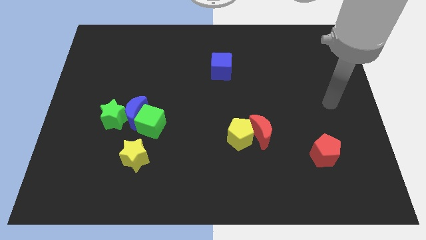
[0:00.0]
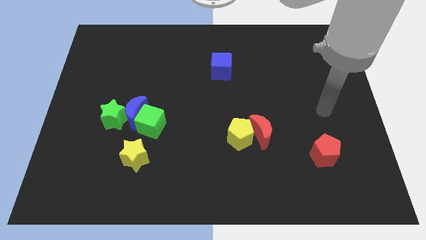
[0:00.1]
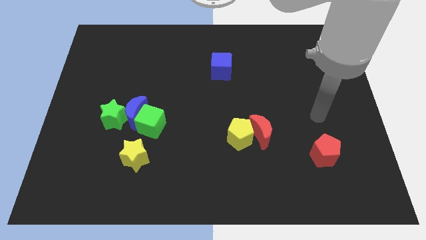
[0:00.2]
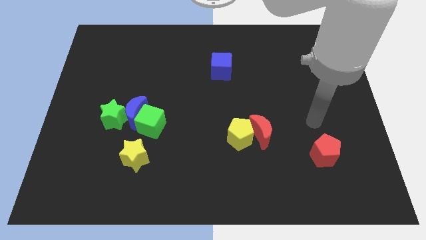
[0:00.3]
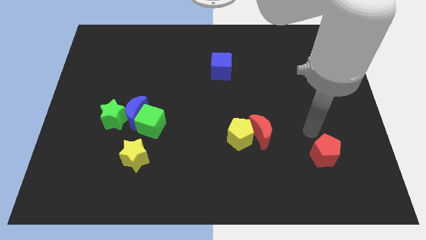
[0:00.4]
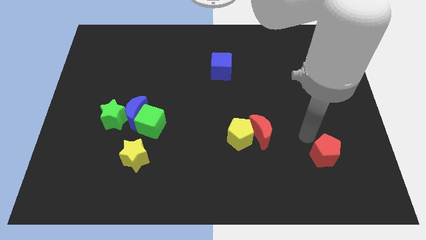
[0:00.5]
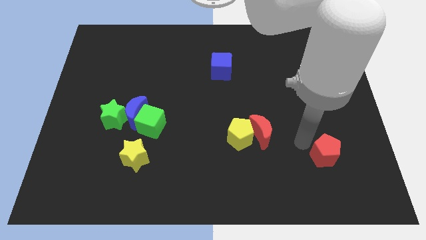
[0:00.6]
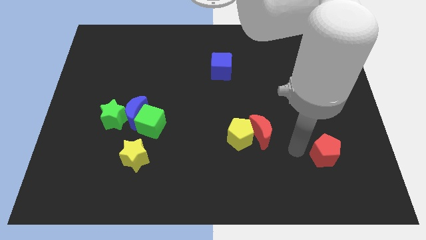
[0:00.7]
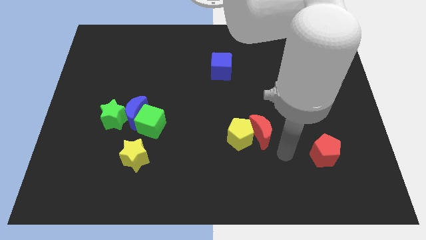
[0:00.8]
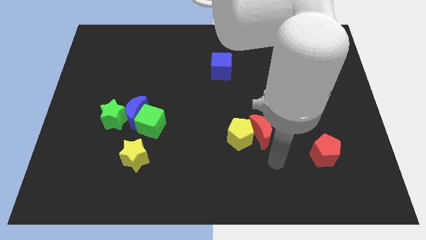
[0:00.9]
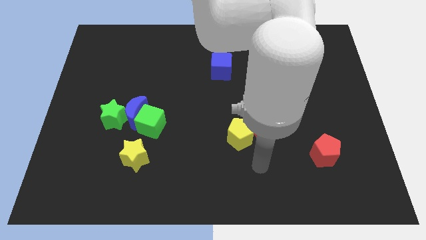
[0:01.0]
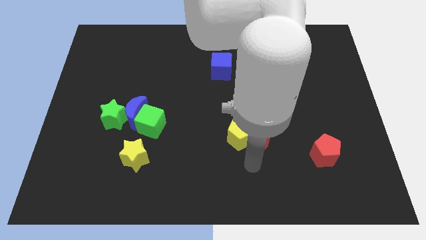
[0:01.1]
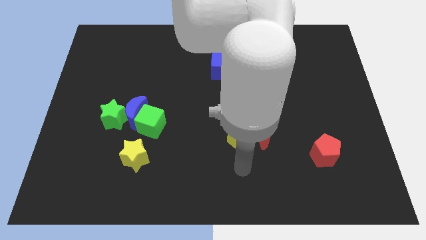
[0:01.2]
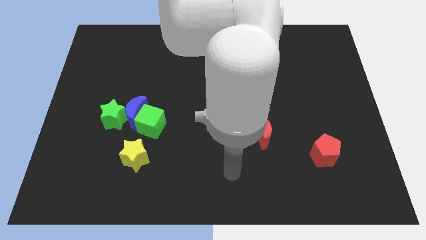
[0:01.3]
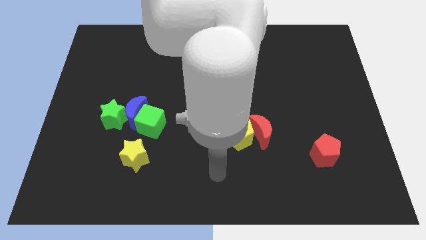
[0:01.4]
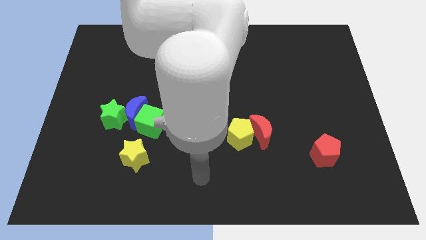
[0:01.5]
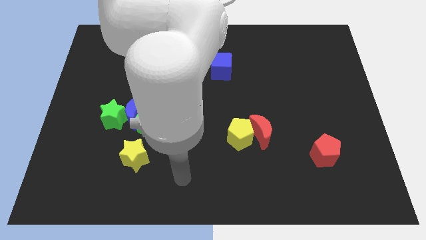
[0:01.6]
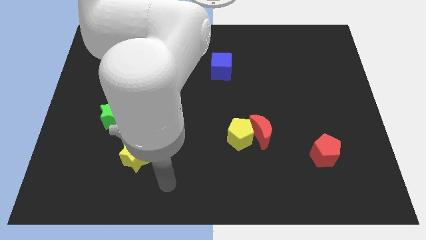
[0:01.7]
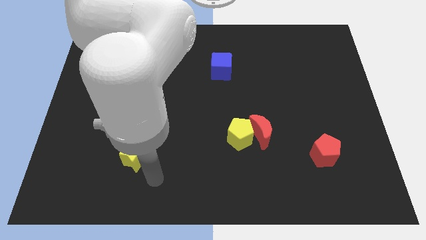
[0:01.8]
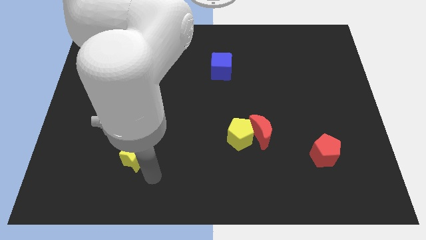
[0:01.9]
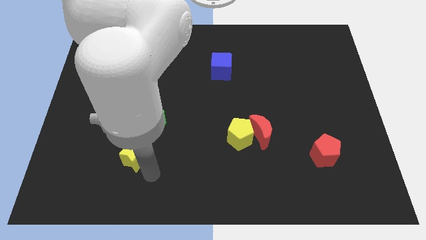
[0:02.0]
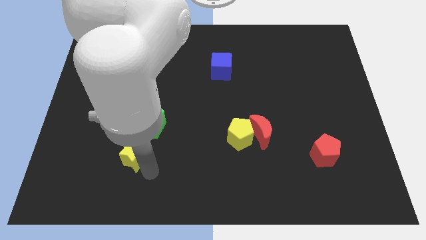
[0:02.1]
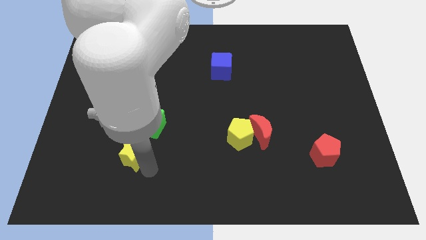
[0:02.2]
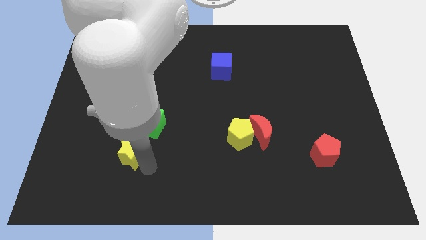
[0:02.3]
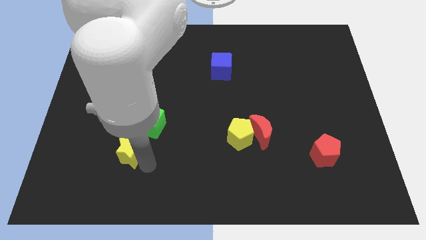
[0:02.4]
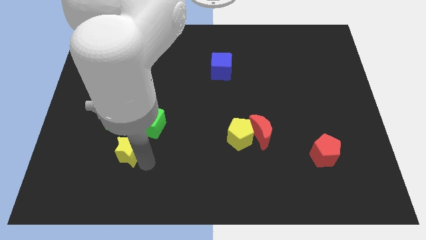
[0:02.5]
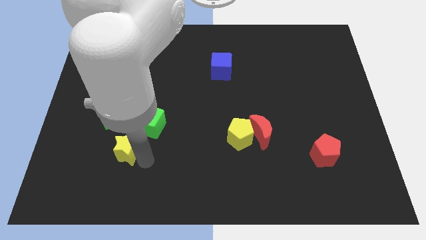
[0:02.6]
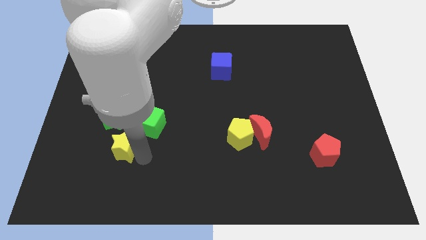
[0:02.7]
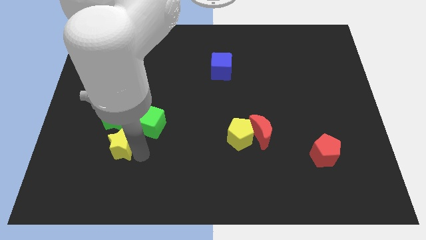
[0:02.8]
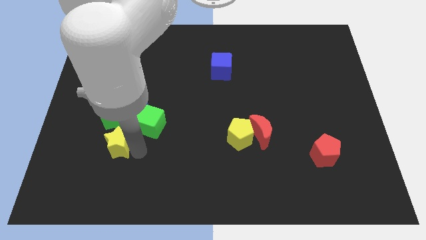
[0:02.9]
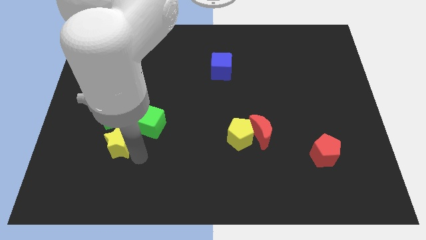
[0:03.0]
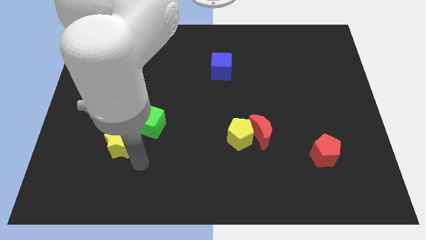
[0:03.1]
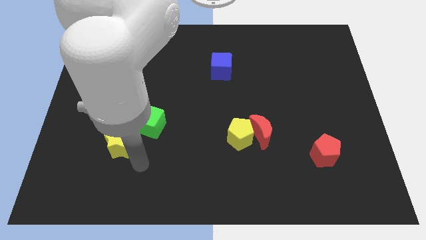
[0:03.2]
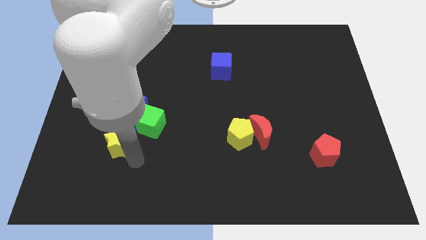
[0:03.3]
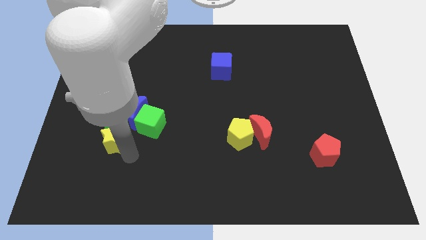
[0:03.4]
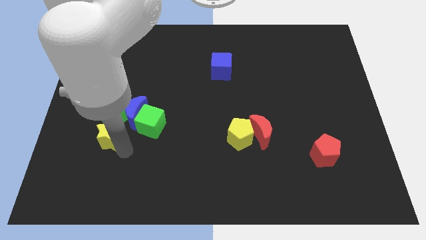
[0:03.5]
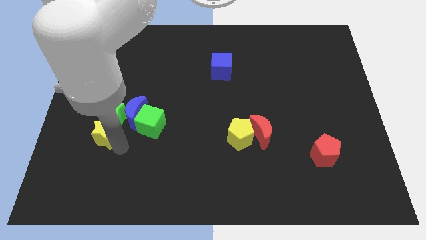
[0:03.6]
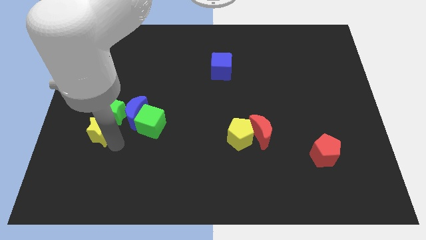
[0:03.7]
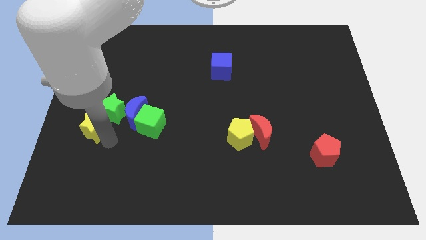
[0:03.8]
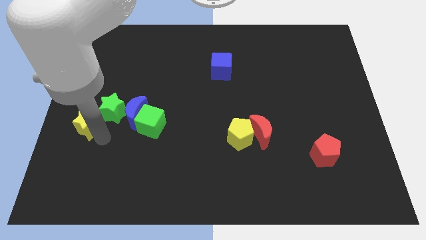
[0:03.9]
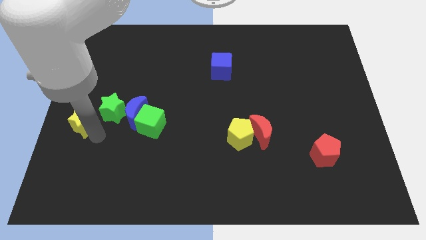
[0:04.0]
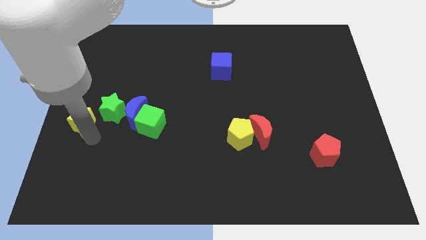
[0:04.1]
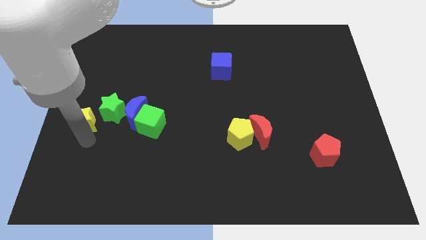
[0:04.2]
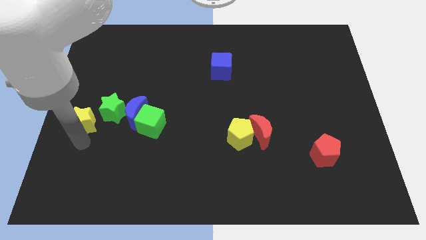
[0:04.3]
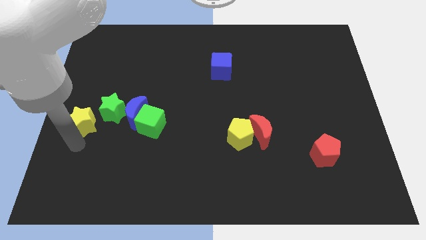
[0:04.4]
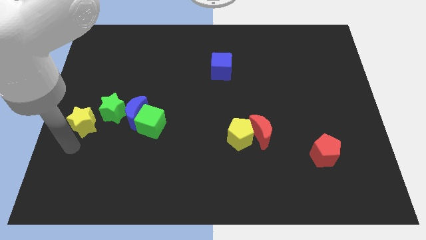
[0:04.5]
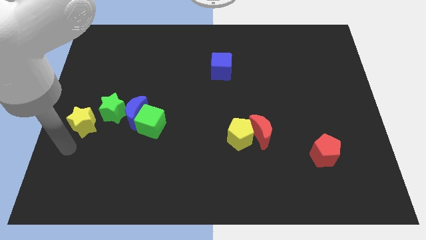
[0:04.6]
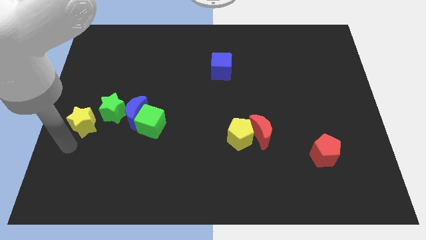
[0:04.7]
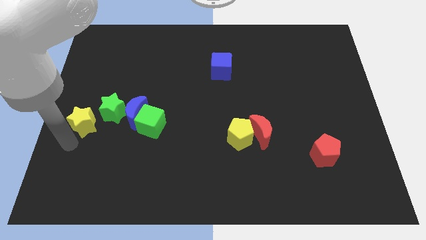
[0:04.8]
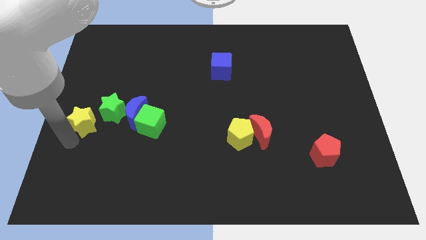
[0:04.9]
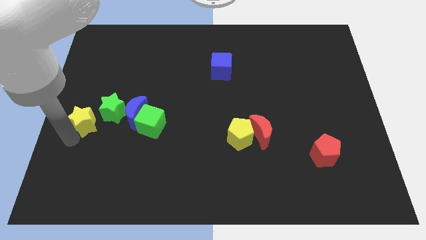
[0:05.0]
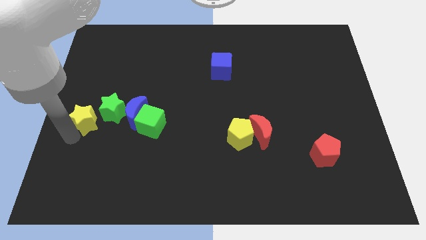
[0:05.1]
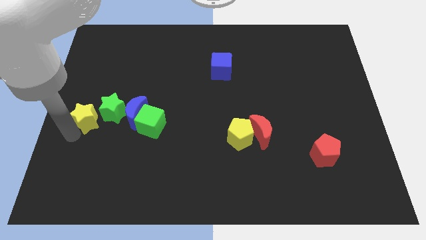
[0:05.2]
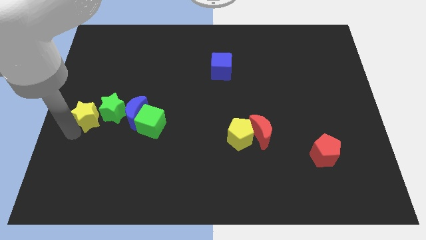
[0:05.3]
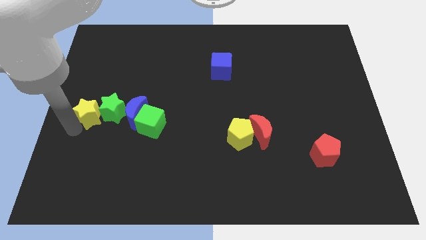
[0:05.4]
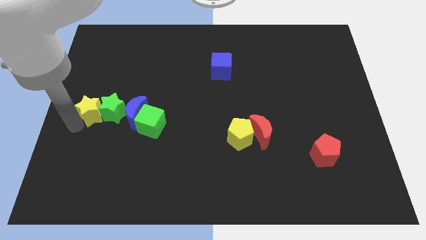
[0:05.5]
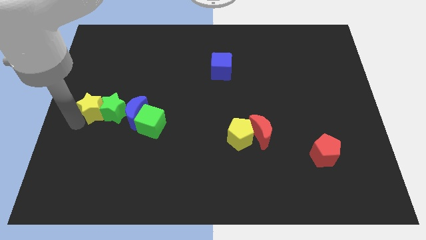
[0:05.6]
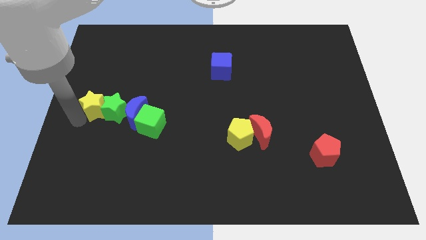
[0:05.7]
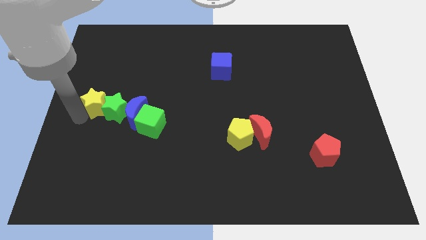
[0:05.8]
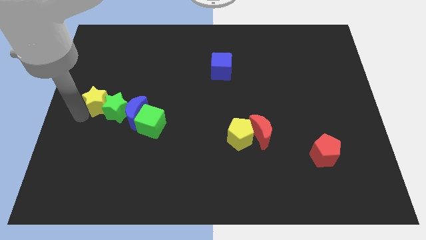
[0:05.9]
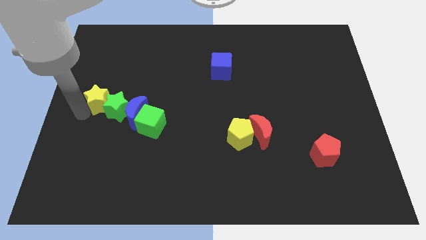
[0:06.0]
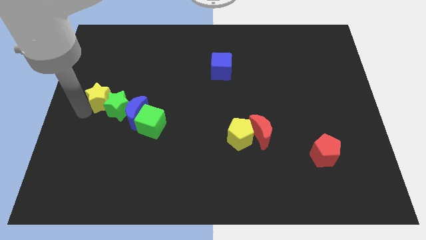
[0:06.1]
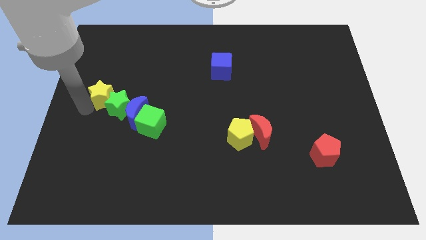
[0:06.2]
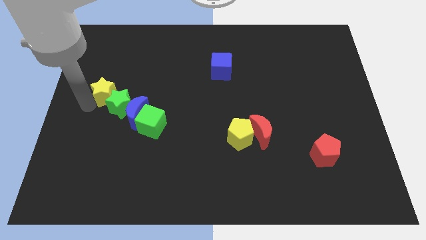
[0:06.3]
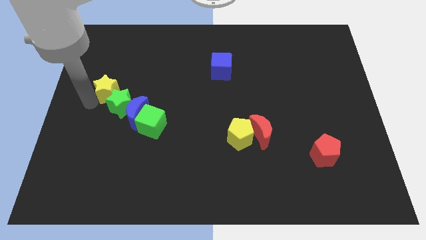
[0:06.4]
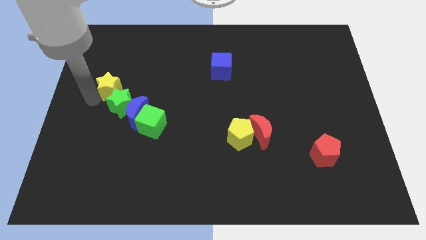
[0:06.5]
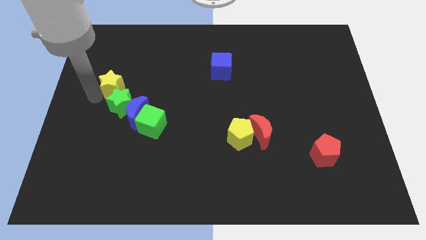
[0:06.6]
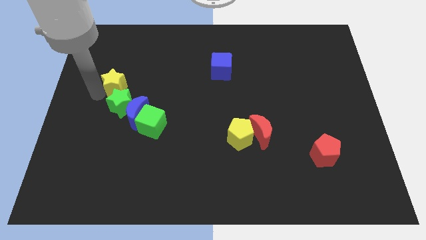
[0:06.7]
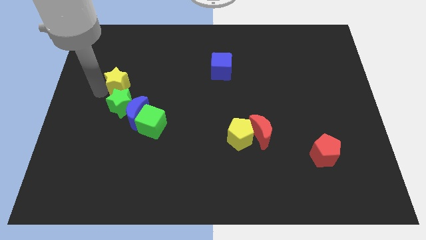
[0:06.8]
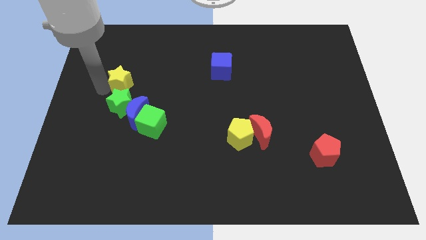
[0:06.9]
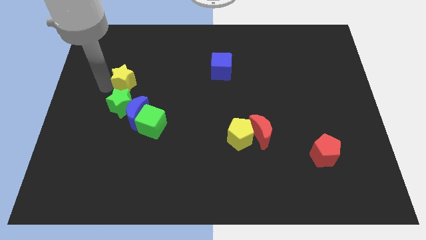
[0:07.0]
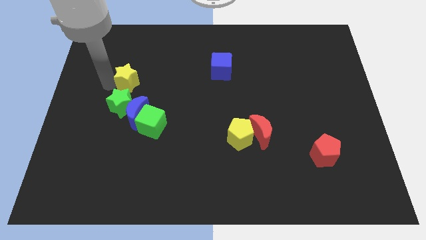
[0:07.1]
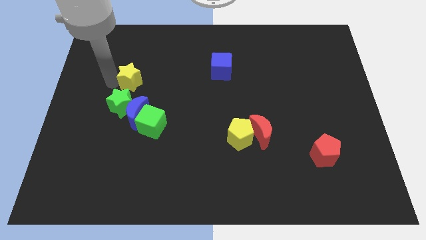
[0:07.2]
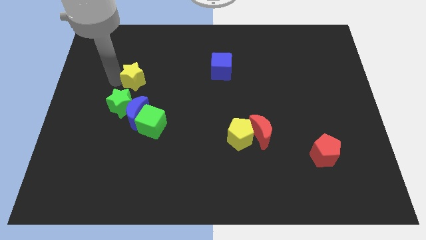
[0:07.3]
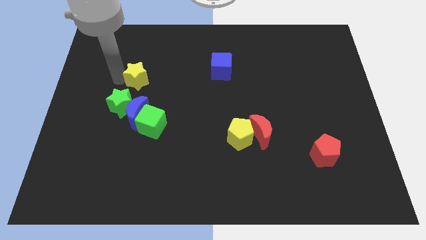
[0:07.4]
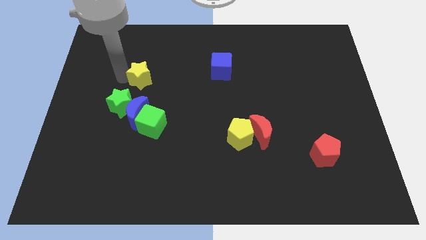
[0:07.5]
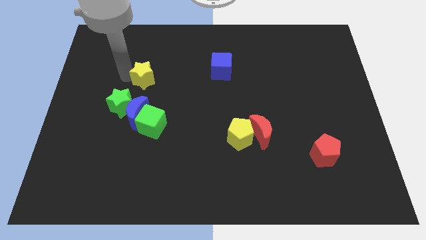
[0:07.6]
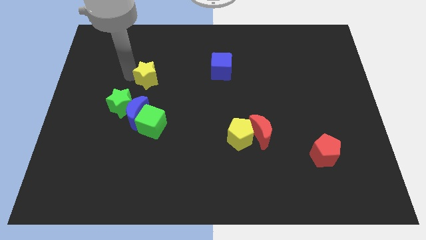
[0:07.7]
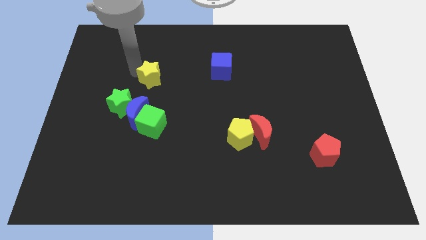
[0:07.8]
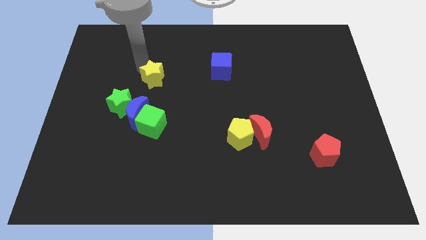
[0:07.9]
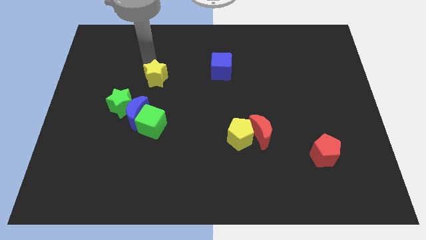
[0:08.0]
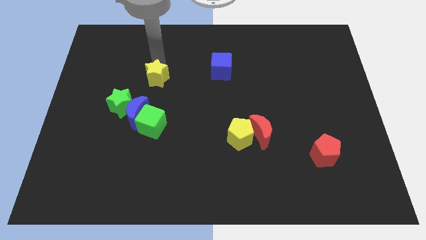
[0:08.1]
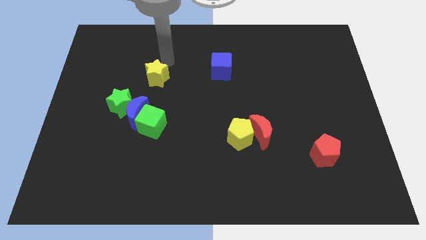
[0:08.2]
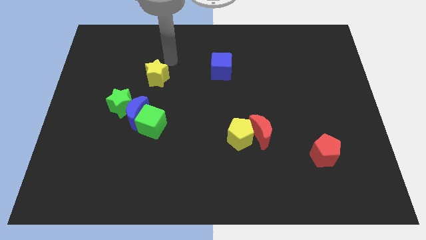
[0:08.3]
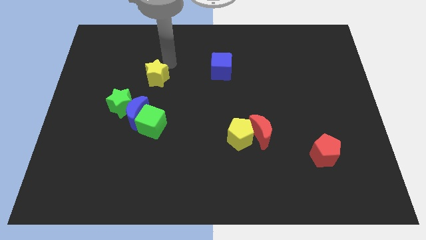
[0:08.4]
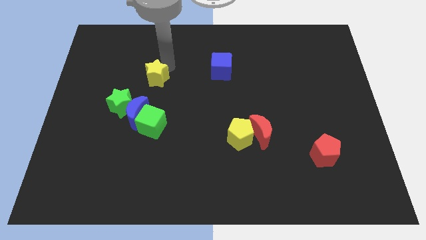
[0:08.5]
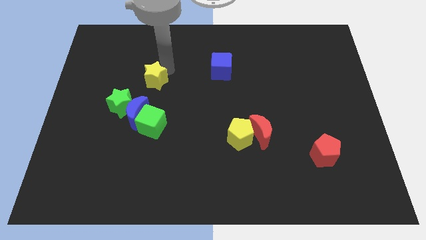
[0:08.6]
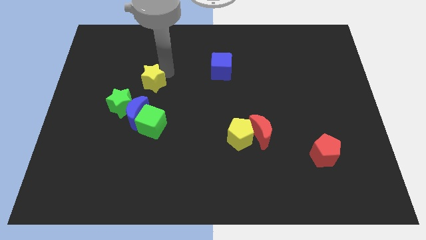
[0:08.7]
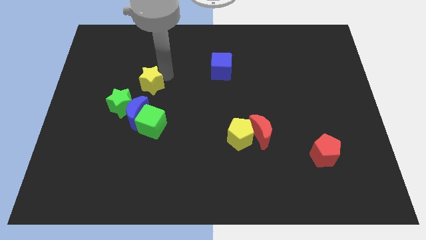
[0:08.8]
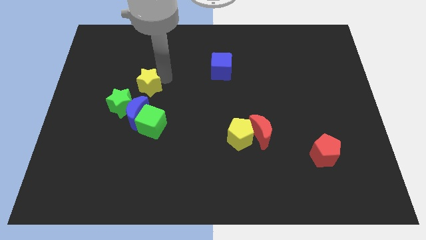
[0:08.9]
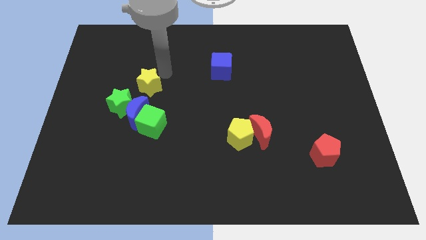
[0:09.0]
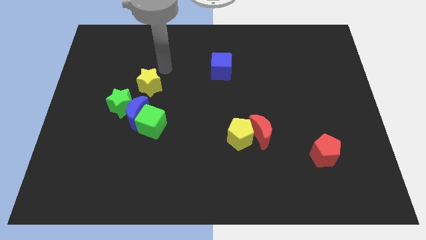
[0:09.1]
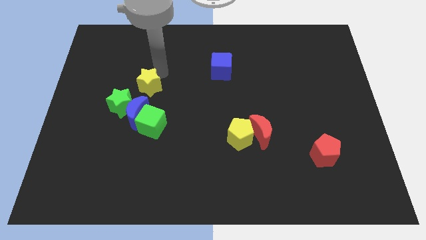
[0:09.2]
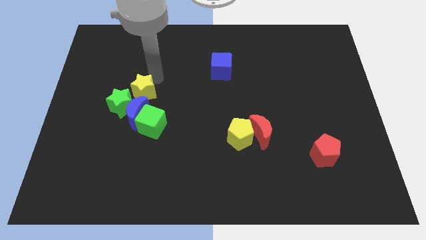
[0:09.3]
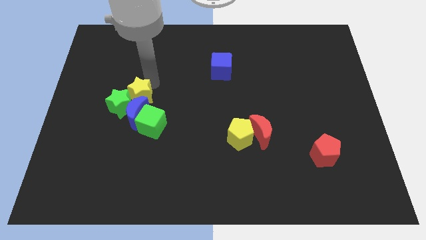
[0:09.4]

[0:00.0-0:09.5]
move the yellow star to the top left of the green cube
